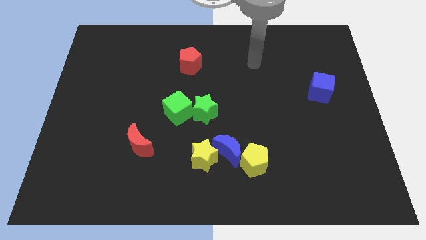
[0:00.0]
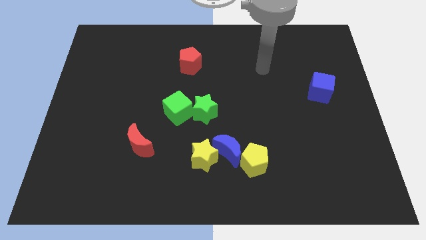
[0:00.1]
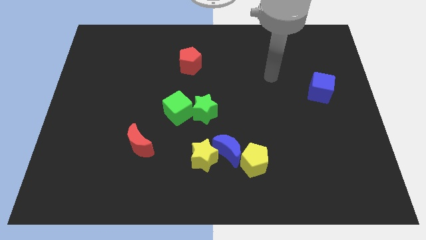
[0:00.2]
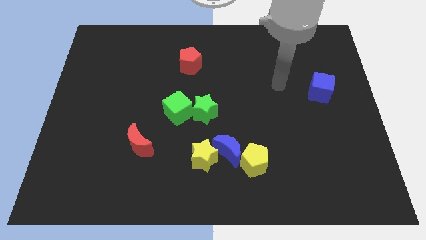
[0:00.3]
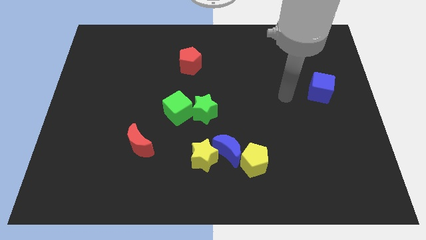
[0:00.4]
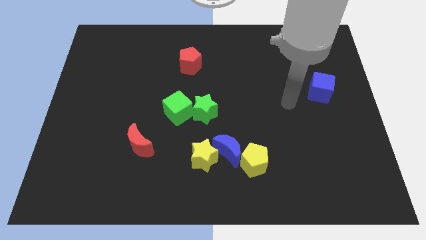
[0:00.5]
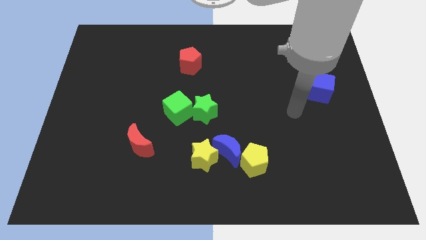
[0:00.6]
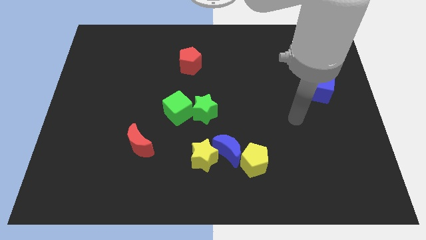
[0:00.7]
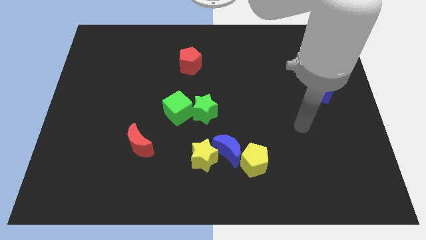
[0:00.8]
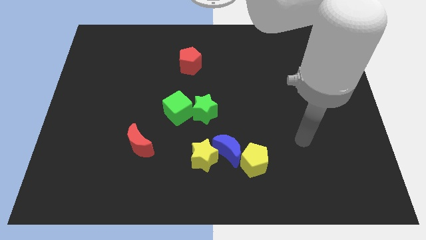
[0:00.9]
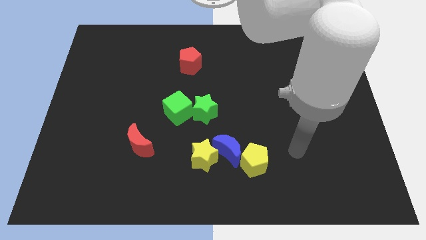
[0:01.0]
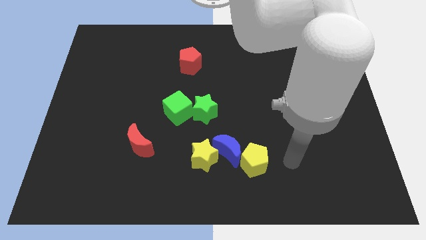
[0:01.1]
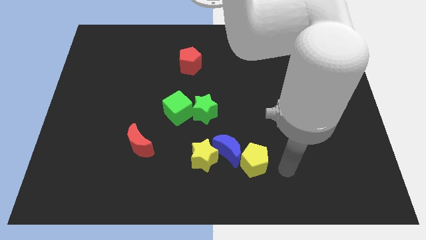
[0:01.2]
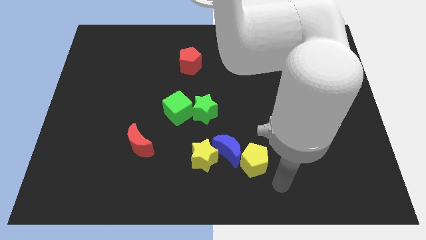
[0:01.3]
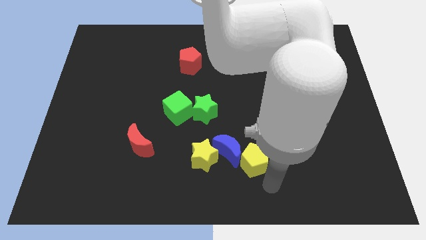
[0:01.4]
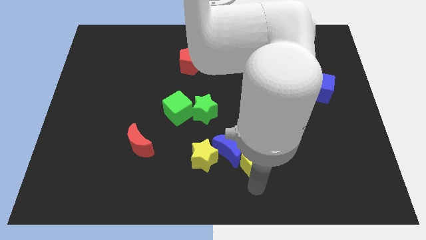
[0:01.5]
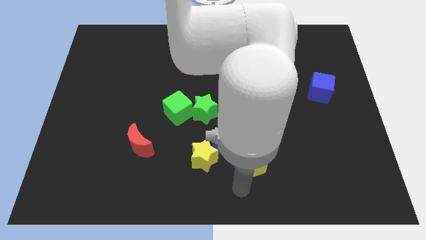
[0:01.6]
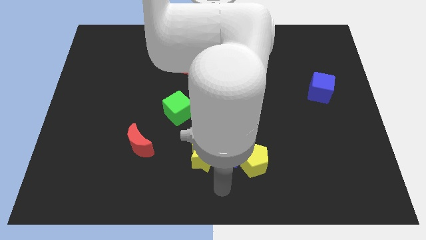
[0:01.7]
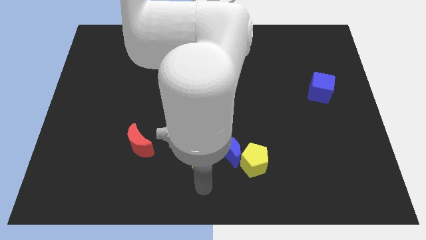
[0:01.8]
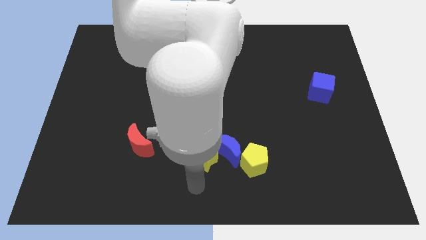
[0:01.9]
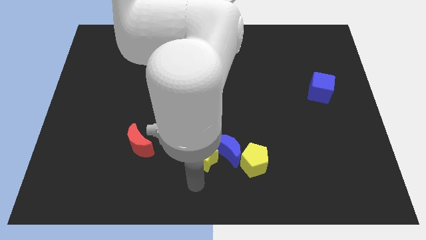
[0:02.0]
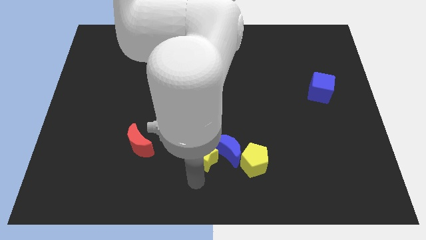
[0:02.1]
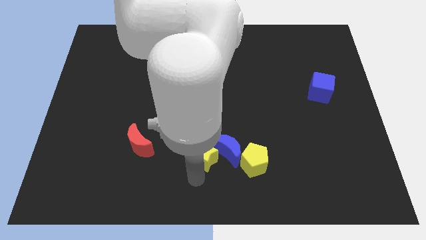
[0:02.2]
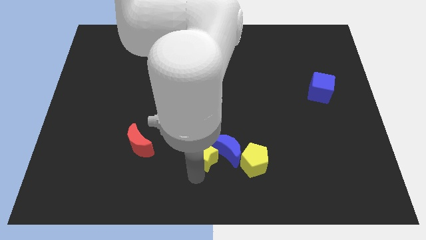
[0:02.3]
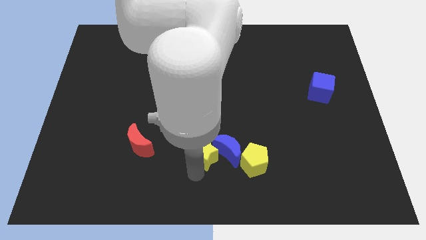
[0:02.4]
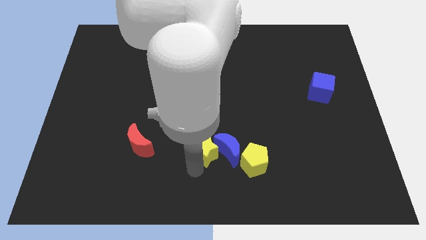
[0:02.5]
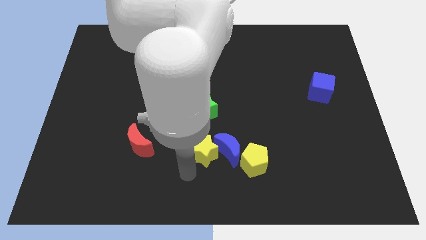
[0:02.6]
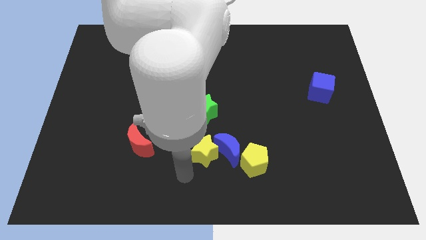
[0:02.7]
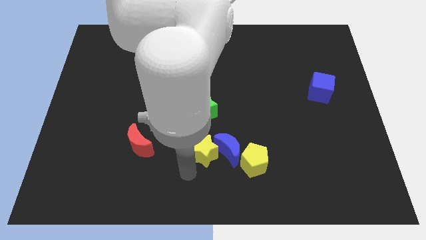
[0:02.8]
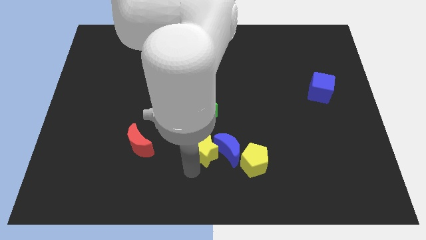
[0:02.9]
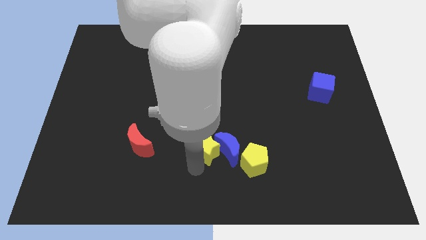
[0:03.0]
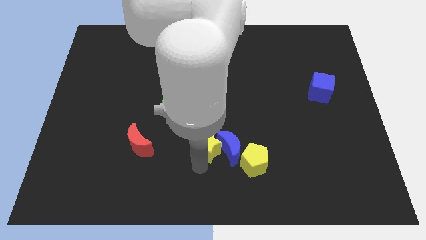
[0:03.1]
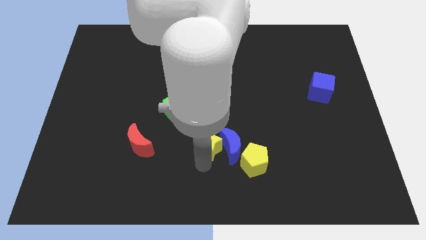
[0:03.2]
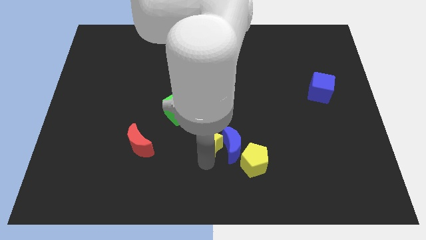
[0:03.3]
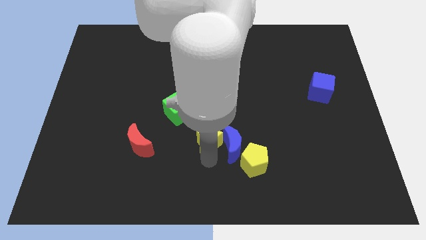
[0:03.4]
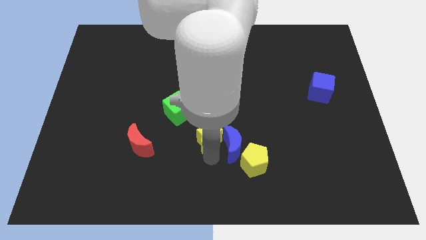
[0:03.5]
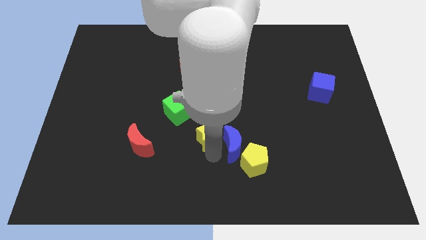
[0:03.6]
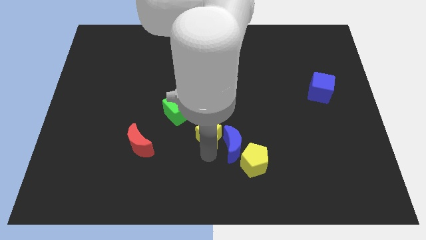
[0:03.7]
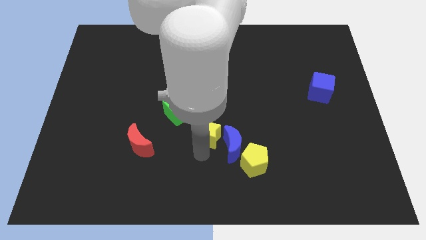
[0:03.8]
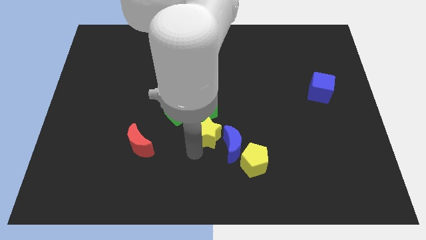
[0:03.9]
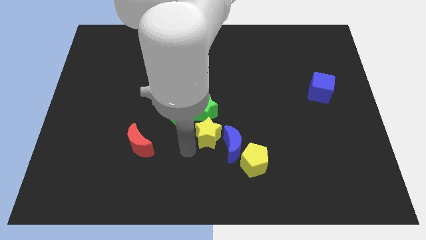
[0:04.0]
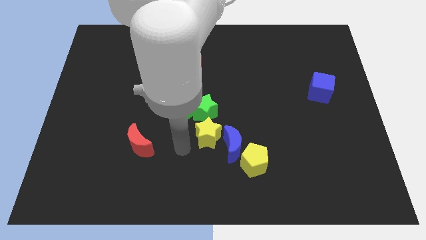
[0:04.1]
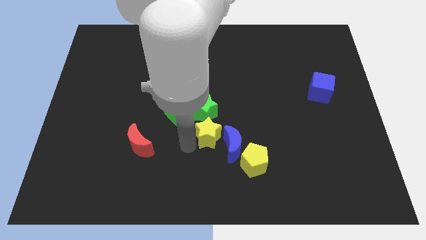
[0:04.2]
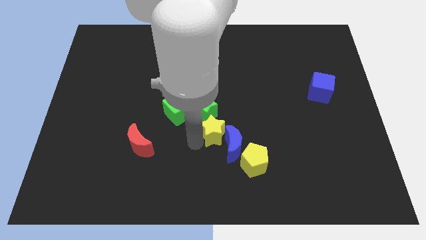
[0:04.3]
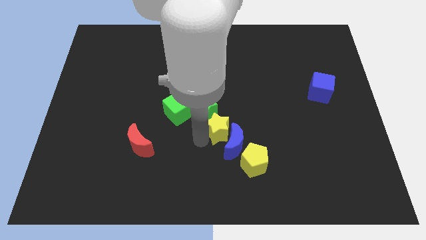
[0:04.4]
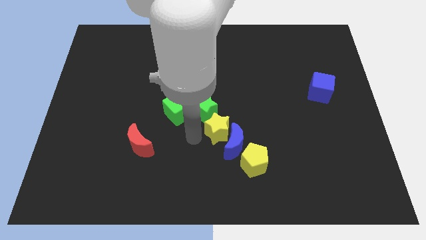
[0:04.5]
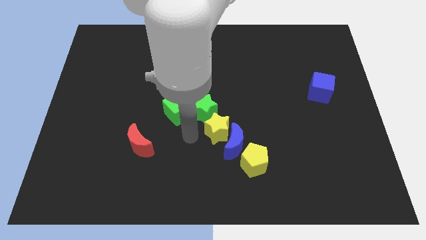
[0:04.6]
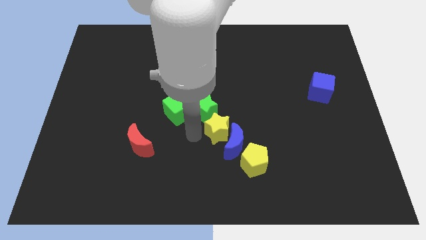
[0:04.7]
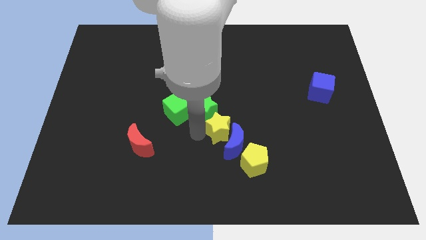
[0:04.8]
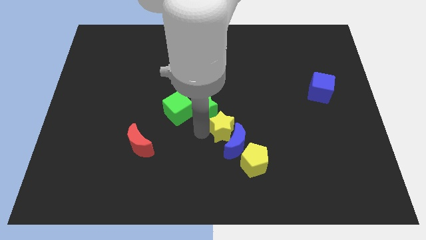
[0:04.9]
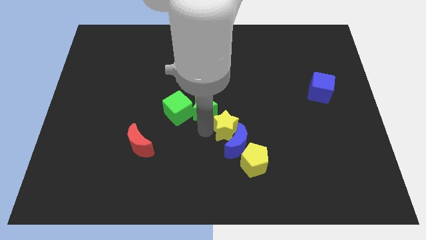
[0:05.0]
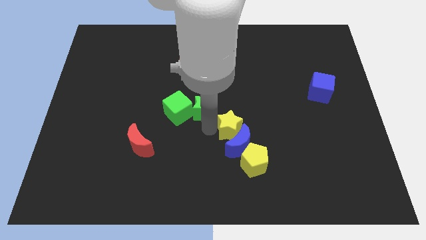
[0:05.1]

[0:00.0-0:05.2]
slide the yellow star to the top right of the blue moon

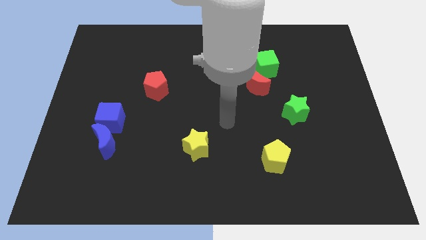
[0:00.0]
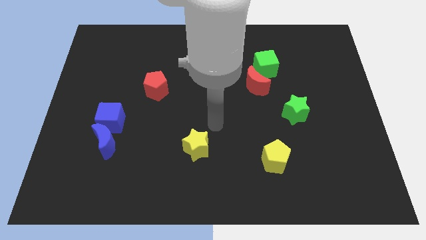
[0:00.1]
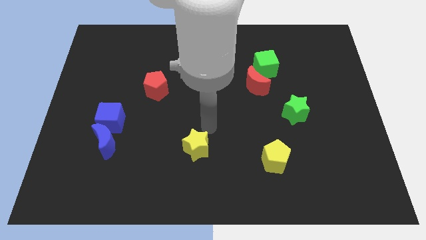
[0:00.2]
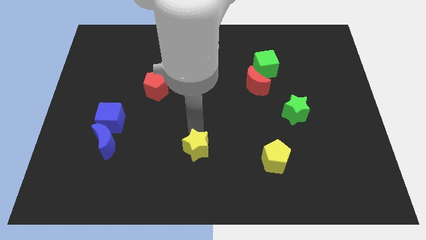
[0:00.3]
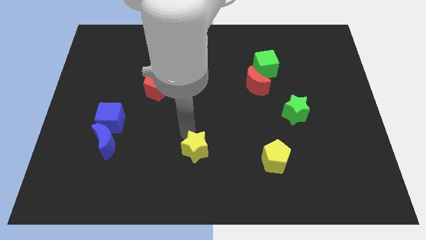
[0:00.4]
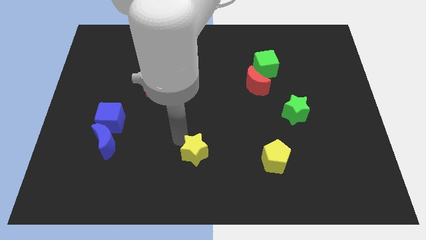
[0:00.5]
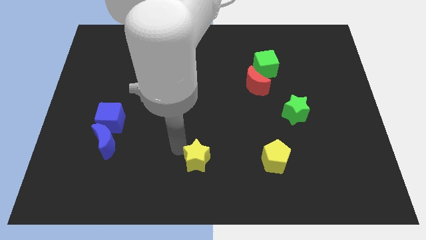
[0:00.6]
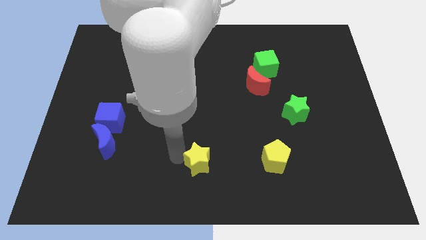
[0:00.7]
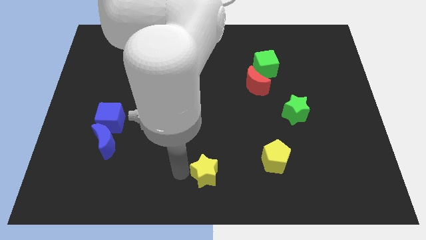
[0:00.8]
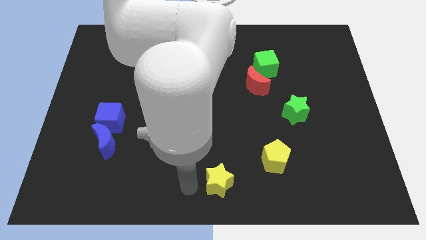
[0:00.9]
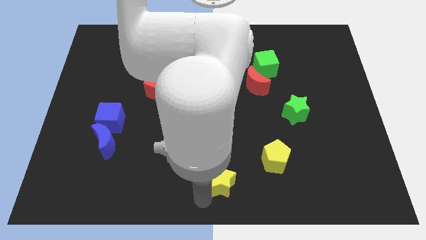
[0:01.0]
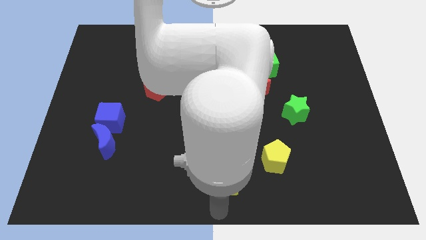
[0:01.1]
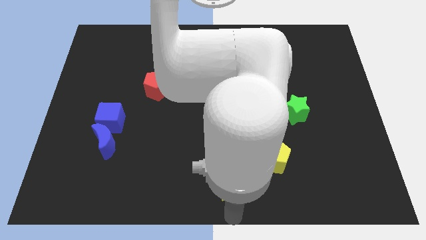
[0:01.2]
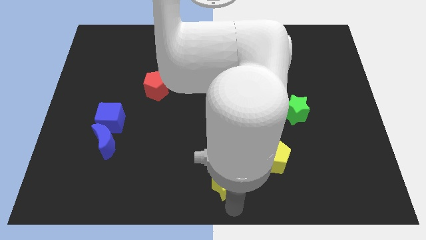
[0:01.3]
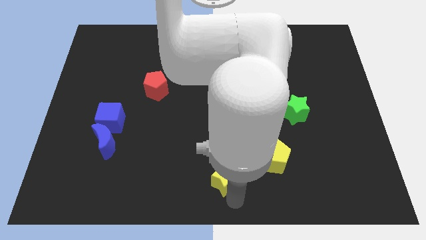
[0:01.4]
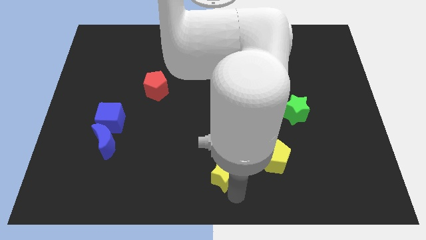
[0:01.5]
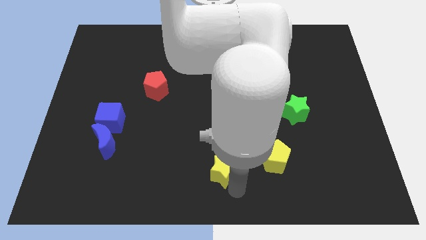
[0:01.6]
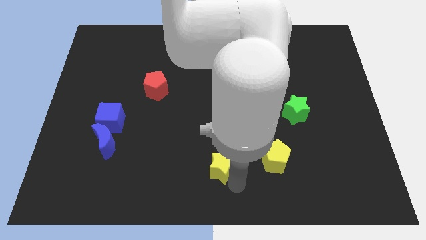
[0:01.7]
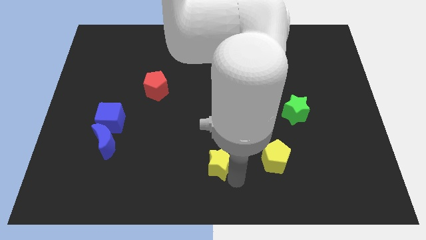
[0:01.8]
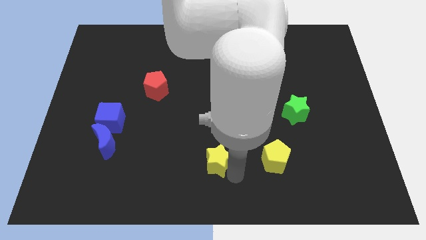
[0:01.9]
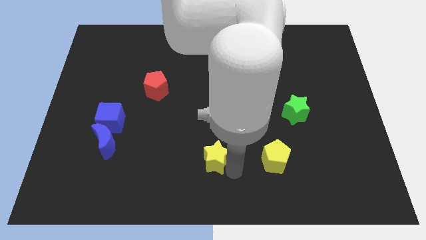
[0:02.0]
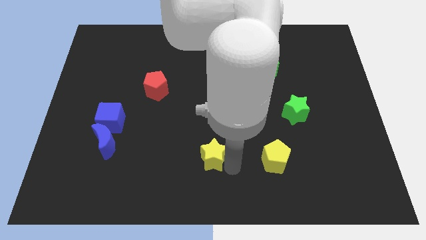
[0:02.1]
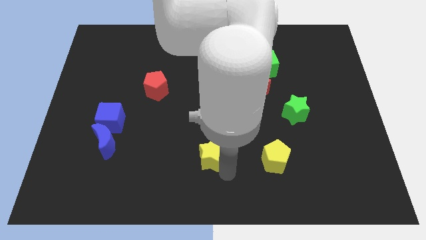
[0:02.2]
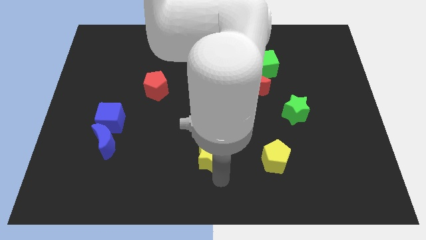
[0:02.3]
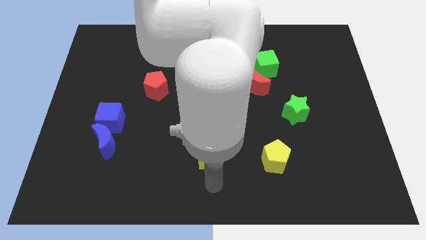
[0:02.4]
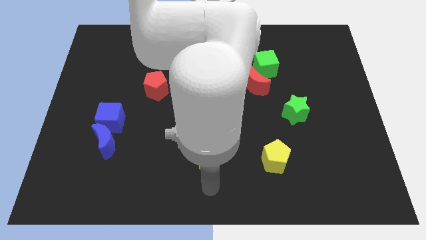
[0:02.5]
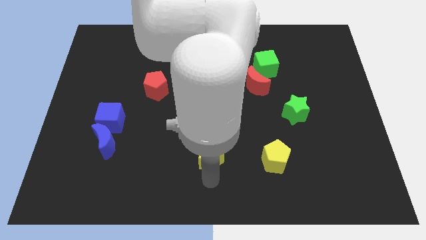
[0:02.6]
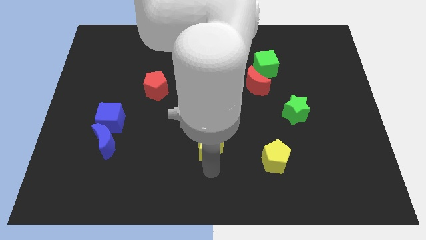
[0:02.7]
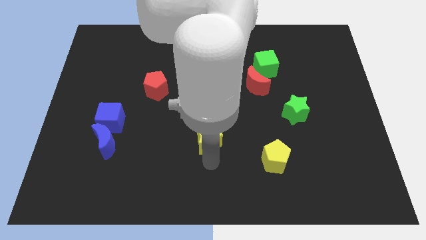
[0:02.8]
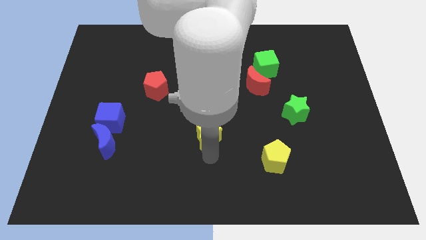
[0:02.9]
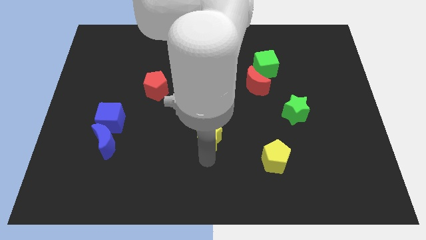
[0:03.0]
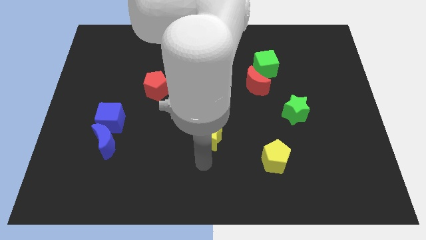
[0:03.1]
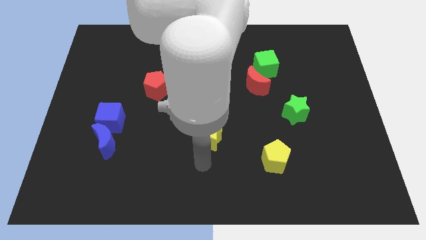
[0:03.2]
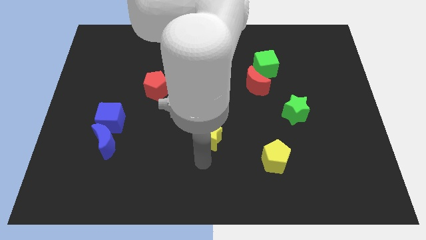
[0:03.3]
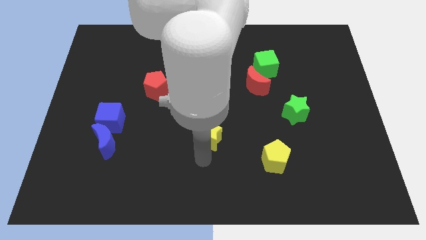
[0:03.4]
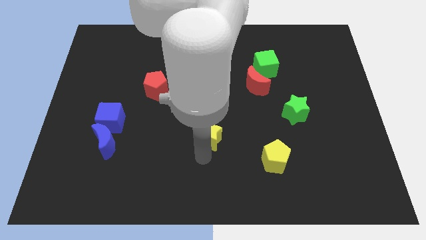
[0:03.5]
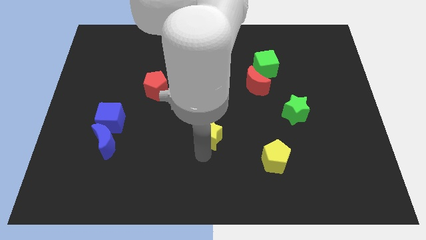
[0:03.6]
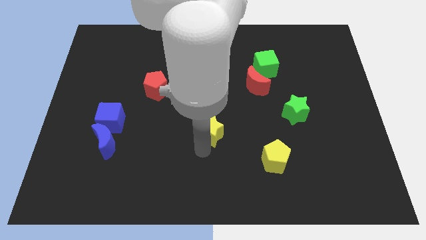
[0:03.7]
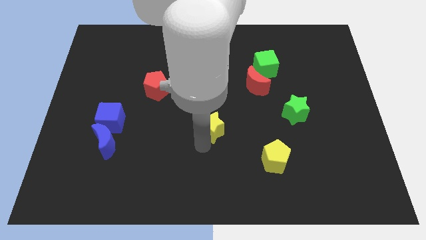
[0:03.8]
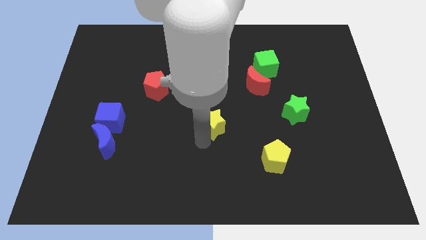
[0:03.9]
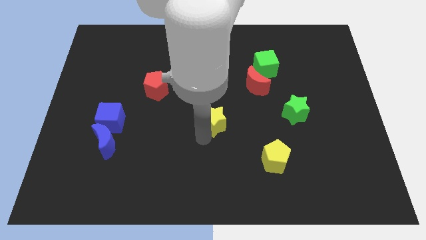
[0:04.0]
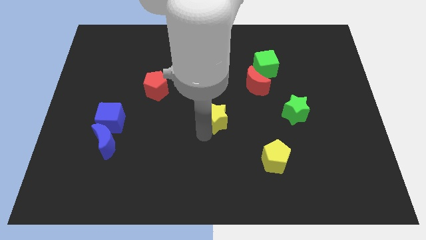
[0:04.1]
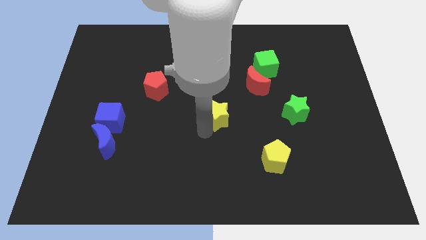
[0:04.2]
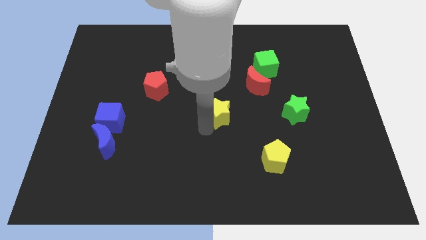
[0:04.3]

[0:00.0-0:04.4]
move the yellow star to the bottom left side of the red moon
